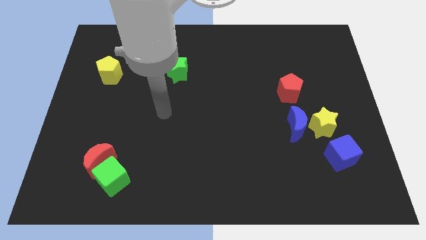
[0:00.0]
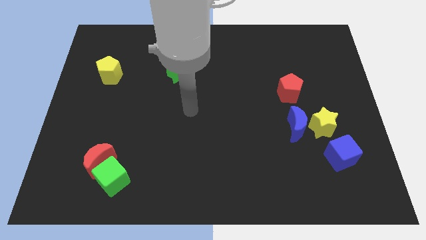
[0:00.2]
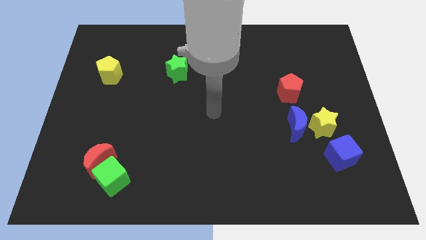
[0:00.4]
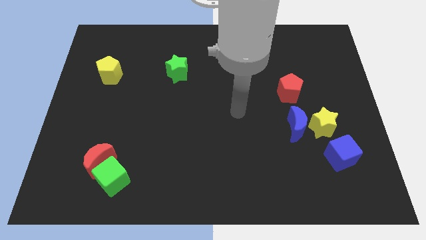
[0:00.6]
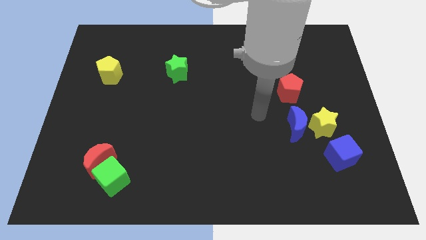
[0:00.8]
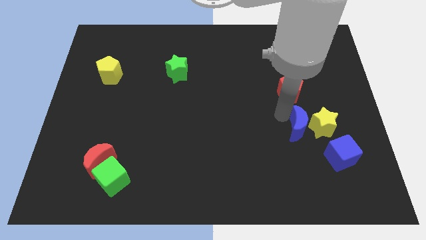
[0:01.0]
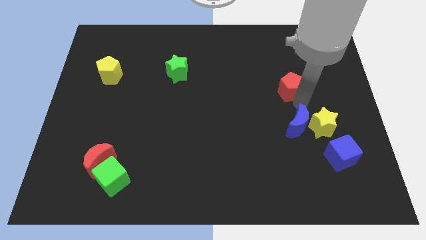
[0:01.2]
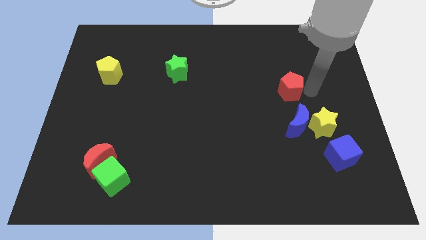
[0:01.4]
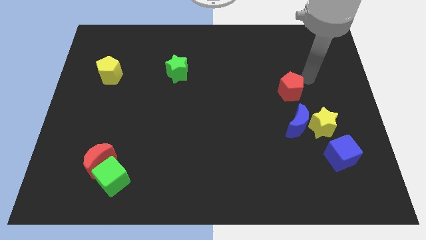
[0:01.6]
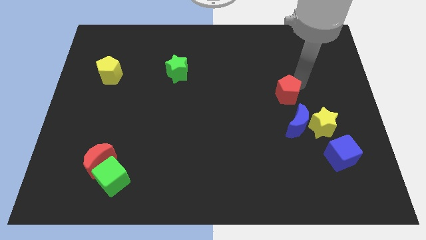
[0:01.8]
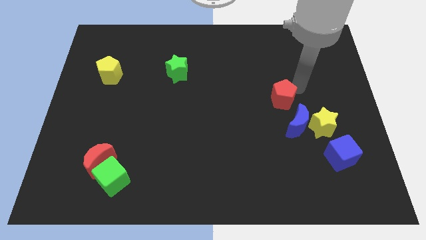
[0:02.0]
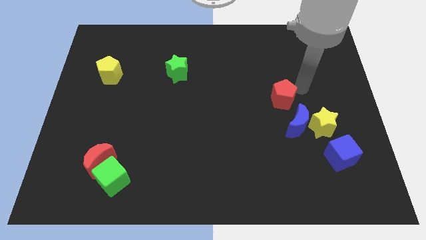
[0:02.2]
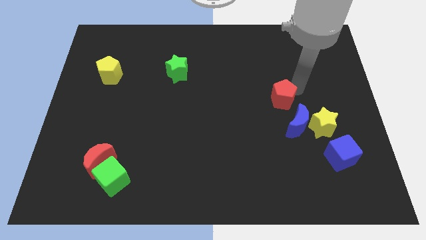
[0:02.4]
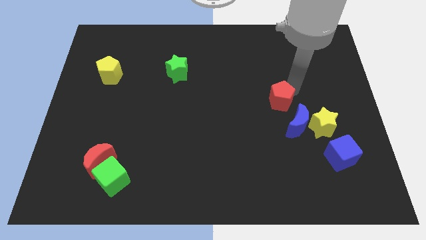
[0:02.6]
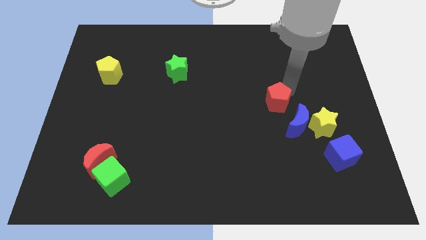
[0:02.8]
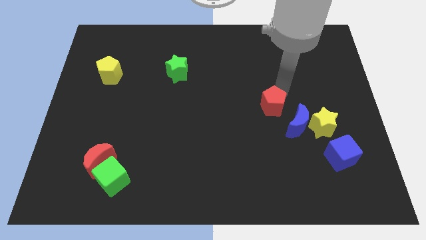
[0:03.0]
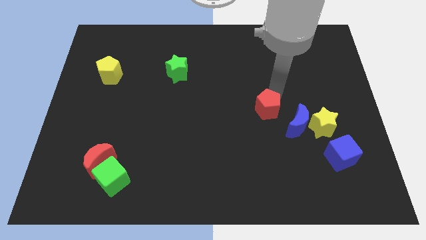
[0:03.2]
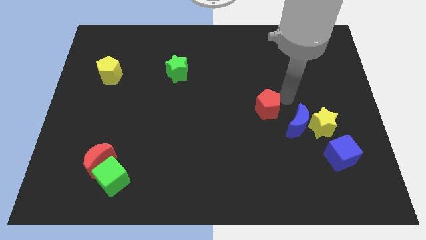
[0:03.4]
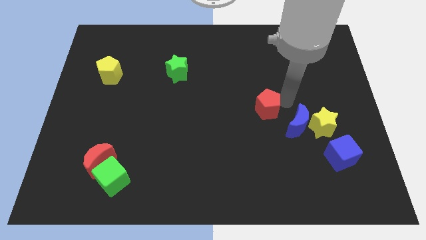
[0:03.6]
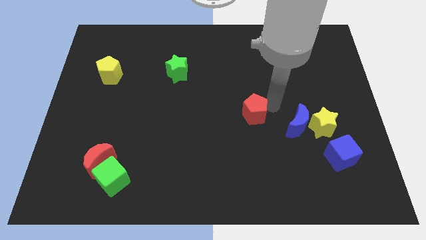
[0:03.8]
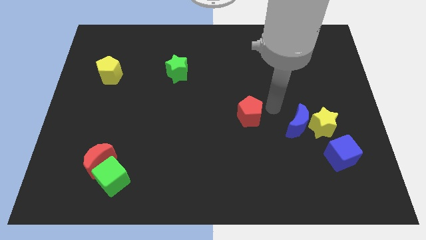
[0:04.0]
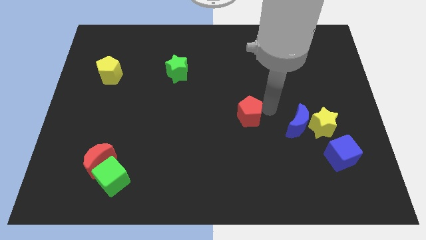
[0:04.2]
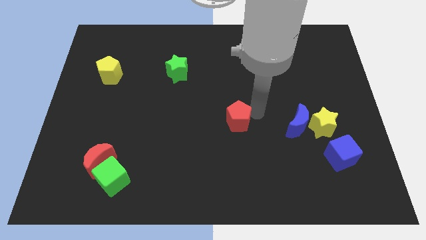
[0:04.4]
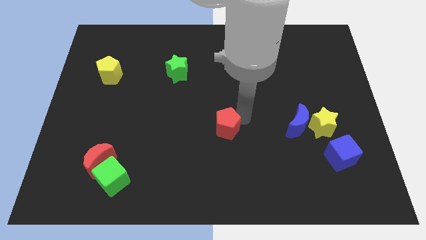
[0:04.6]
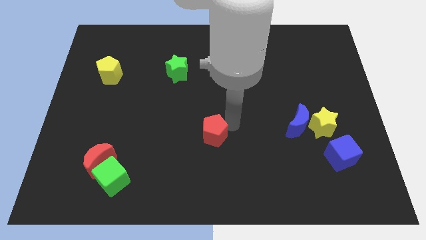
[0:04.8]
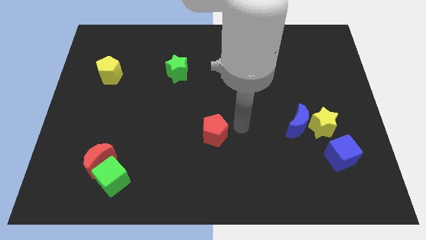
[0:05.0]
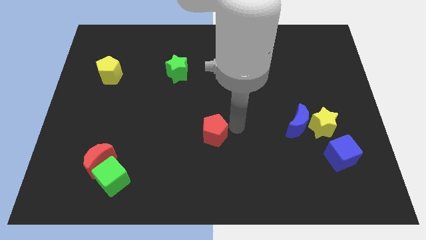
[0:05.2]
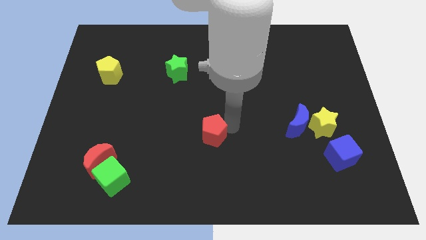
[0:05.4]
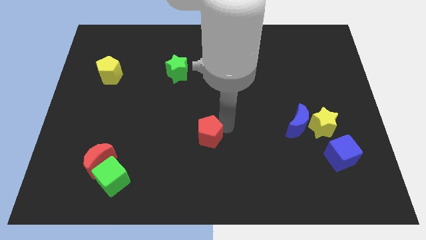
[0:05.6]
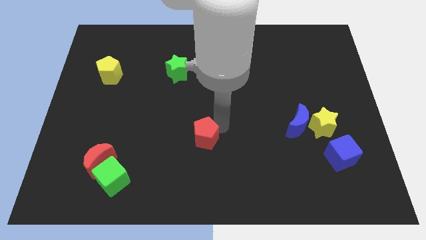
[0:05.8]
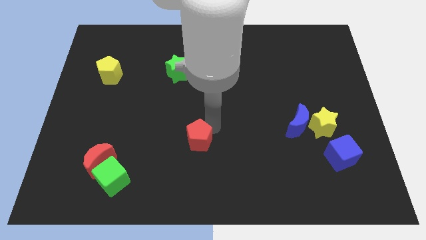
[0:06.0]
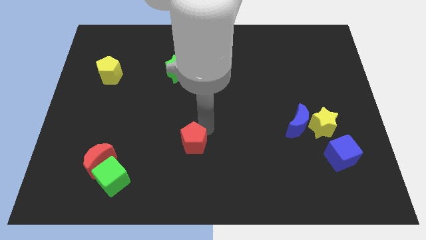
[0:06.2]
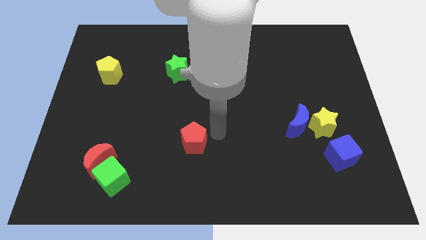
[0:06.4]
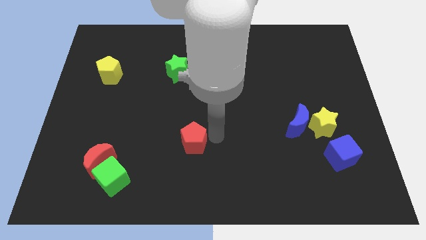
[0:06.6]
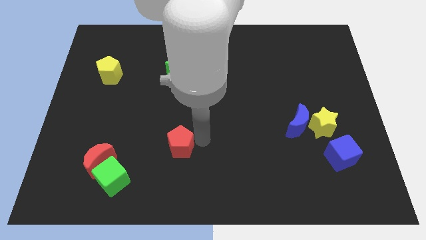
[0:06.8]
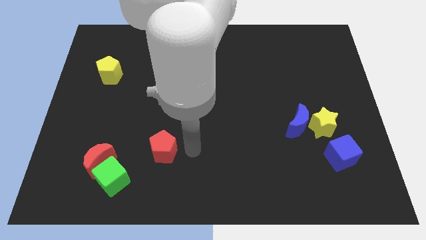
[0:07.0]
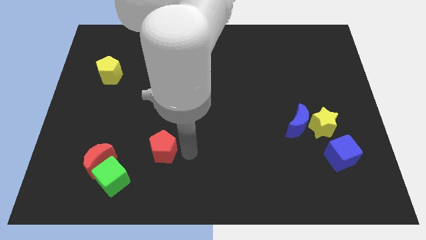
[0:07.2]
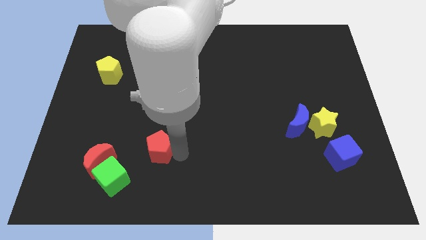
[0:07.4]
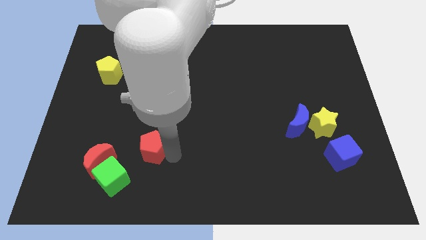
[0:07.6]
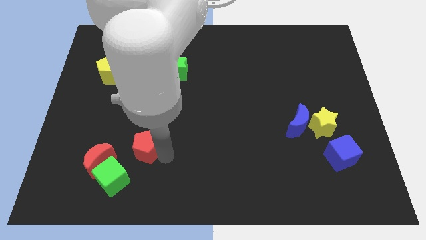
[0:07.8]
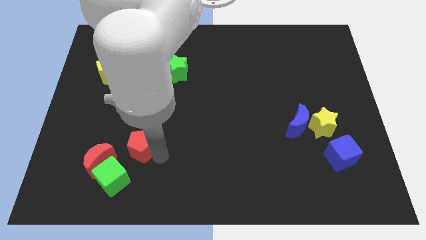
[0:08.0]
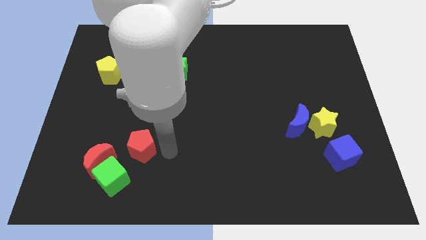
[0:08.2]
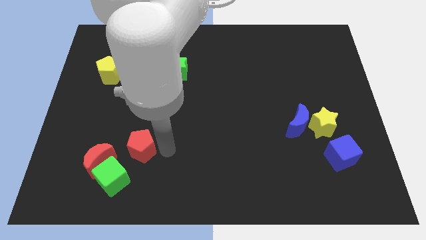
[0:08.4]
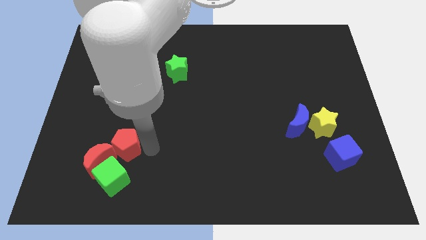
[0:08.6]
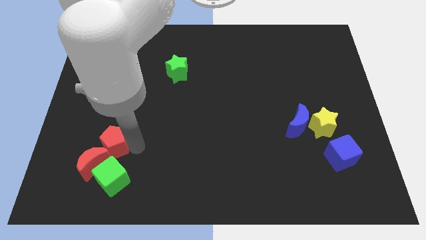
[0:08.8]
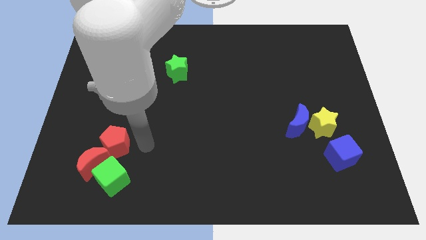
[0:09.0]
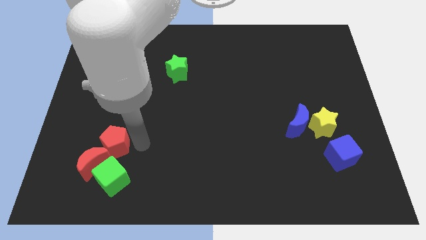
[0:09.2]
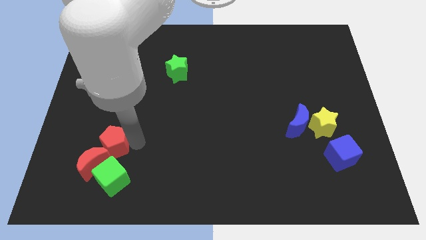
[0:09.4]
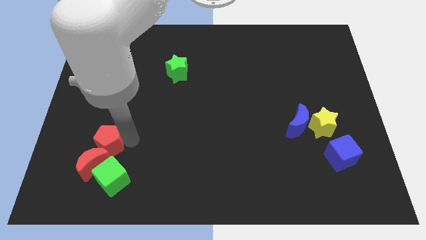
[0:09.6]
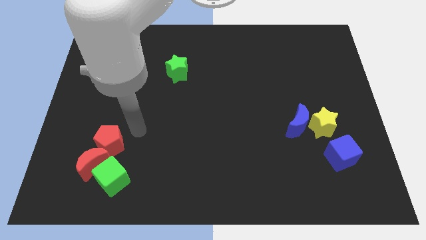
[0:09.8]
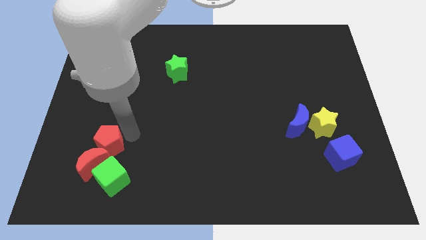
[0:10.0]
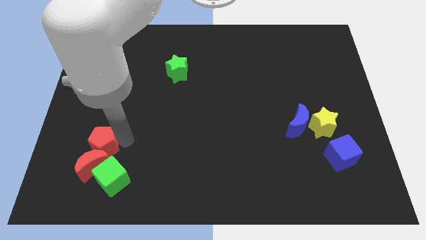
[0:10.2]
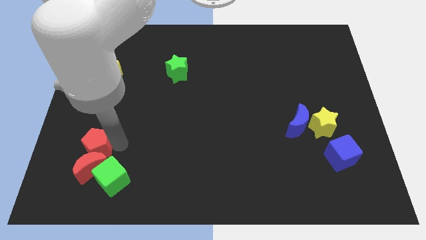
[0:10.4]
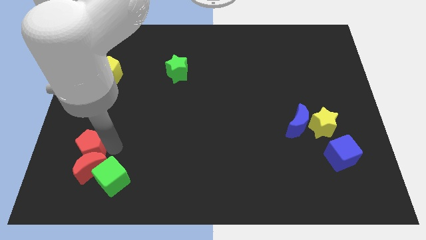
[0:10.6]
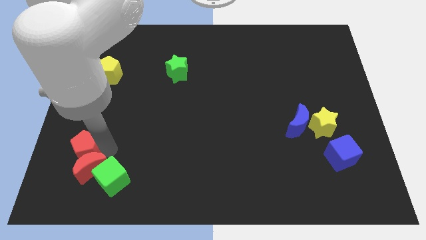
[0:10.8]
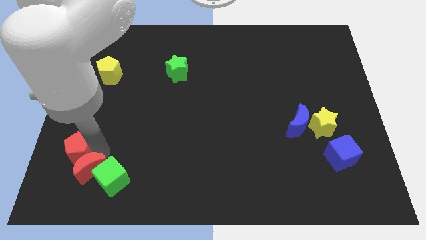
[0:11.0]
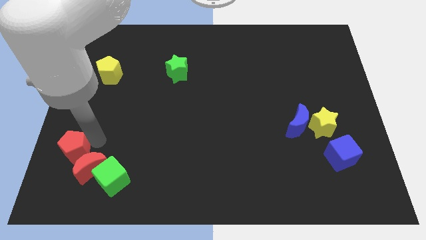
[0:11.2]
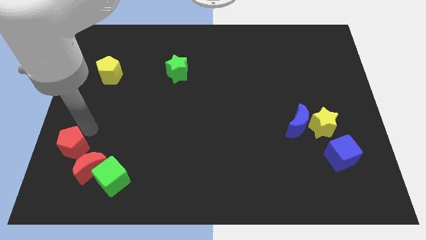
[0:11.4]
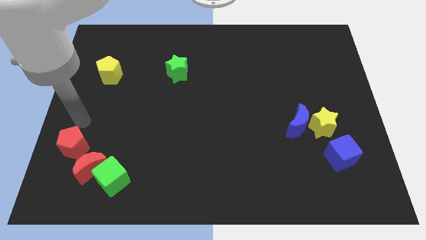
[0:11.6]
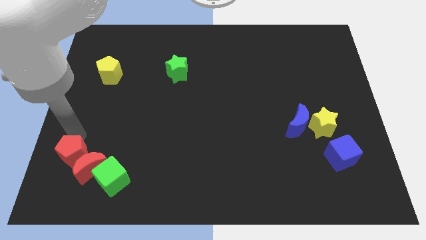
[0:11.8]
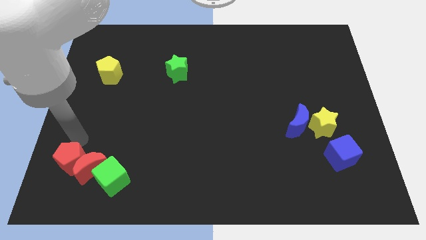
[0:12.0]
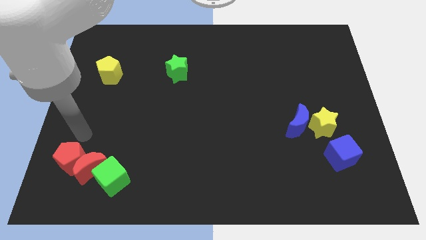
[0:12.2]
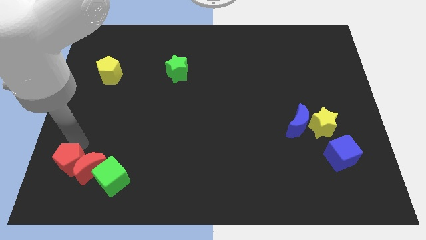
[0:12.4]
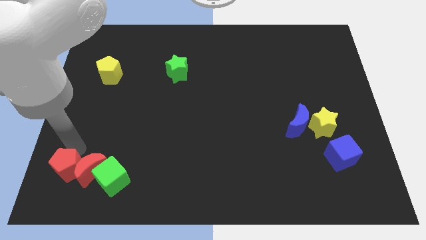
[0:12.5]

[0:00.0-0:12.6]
move the red pentagon to the bottom left corner
